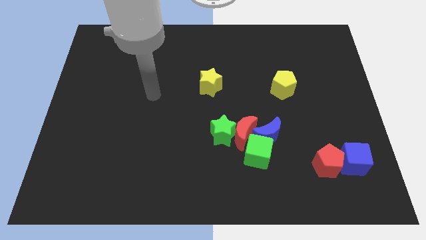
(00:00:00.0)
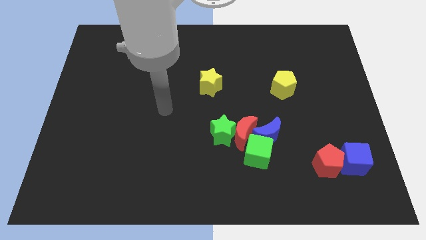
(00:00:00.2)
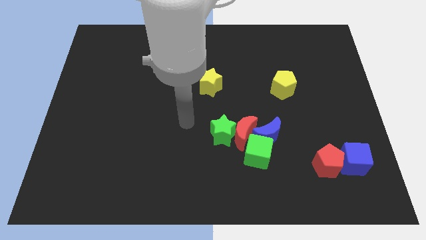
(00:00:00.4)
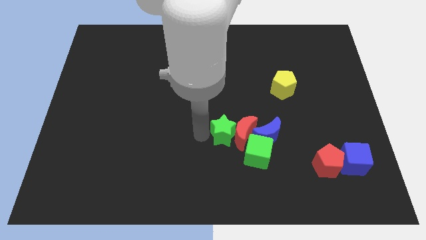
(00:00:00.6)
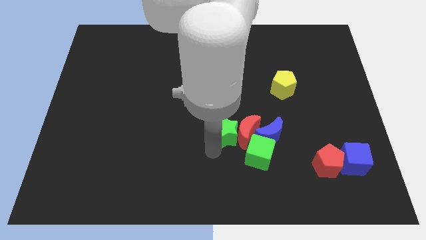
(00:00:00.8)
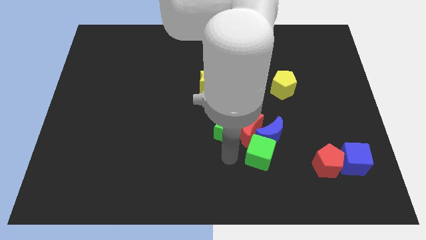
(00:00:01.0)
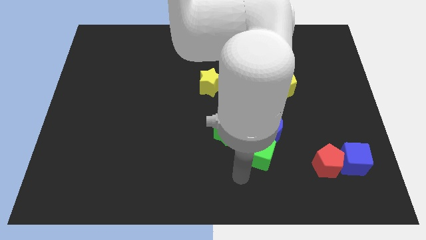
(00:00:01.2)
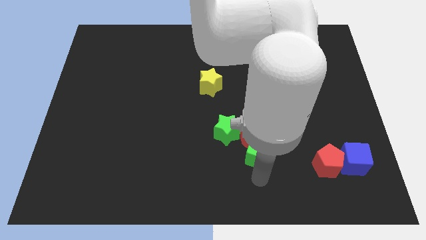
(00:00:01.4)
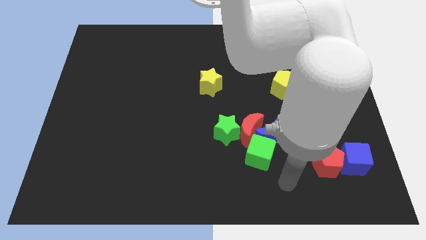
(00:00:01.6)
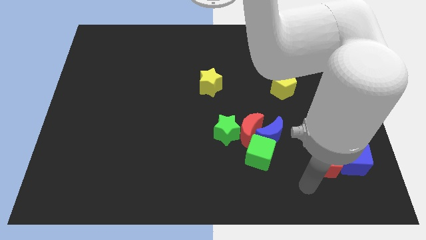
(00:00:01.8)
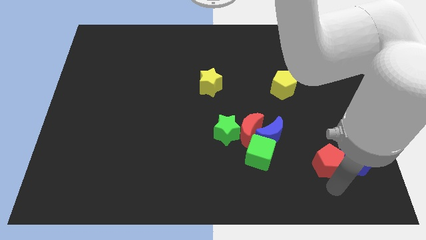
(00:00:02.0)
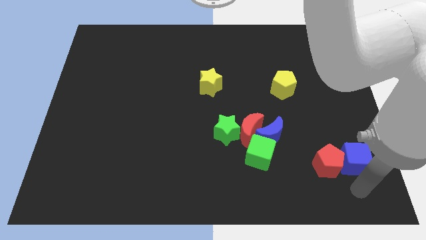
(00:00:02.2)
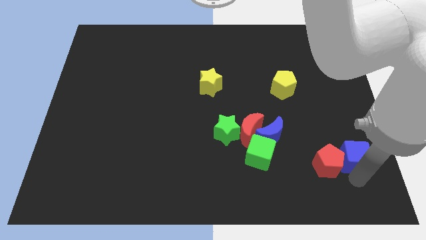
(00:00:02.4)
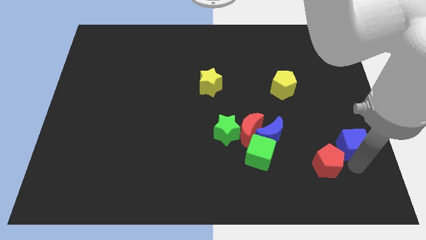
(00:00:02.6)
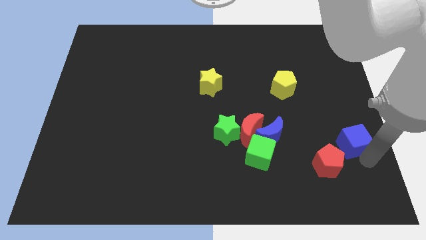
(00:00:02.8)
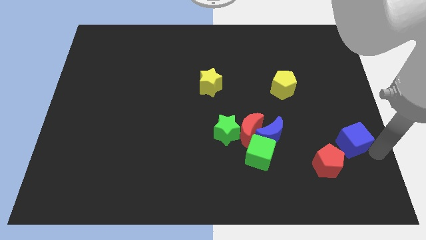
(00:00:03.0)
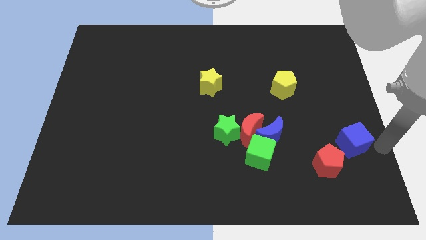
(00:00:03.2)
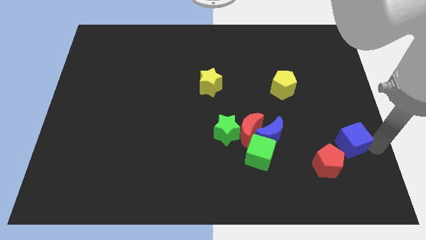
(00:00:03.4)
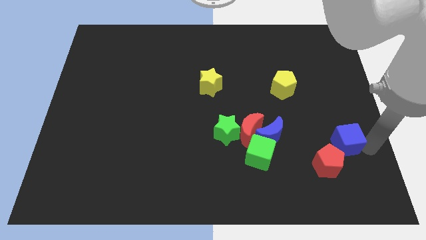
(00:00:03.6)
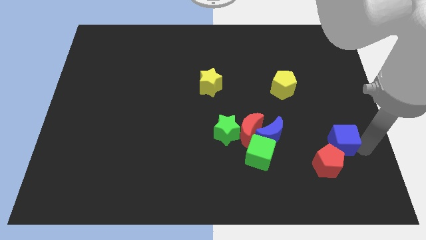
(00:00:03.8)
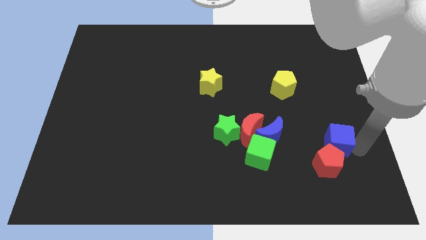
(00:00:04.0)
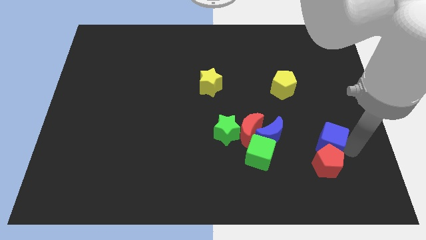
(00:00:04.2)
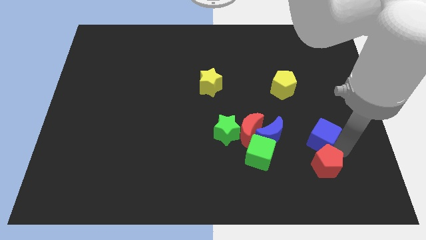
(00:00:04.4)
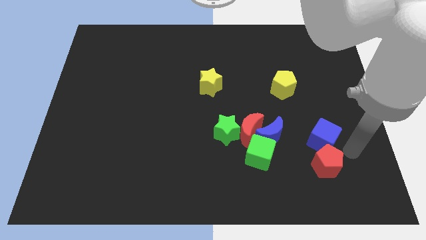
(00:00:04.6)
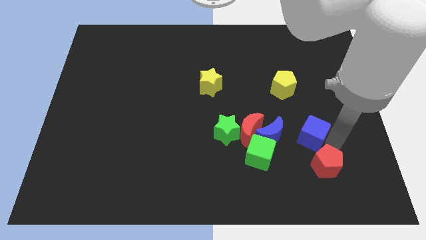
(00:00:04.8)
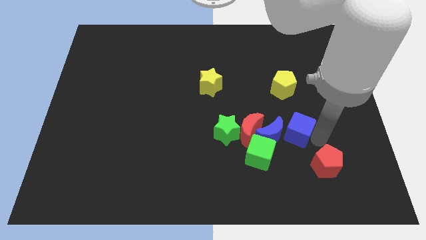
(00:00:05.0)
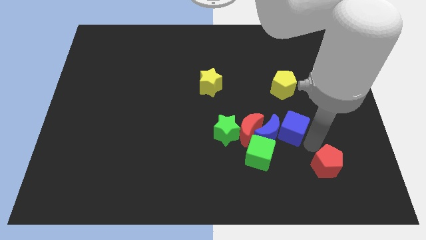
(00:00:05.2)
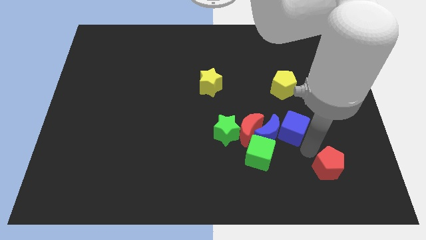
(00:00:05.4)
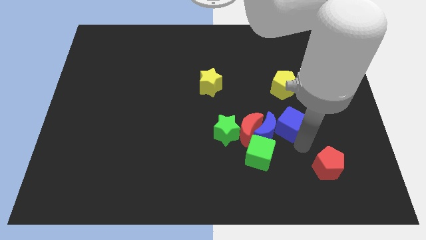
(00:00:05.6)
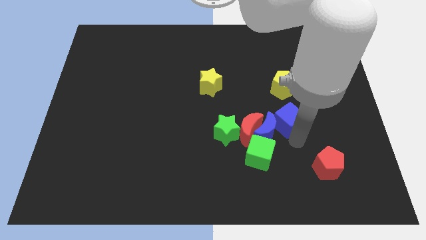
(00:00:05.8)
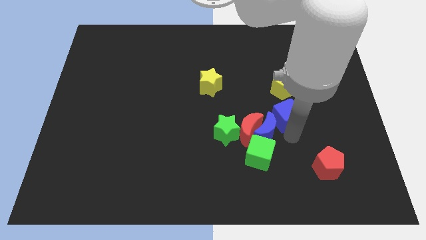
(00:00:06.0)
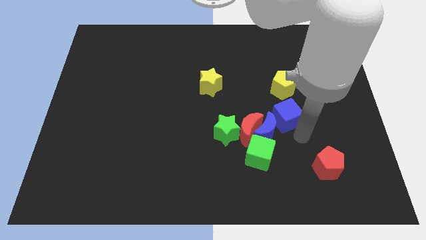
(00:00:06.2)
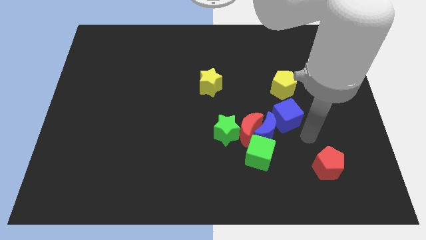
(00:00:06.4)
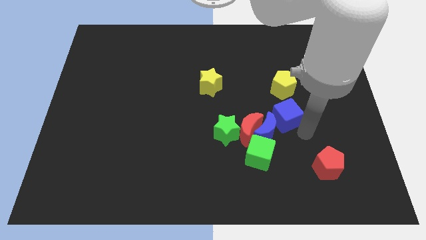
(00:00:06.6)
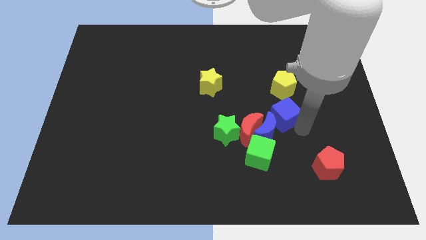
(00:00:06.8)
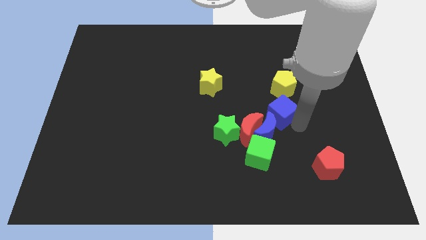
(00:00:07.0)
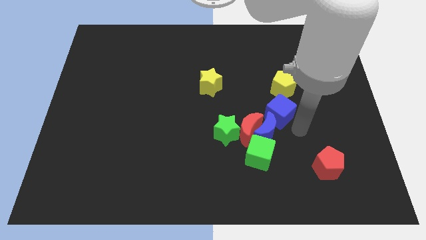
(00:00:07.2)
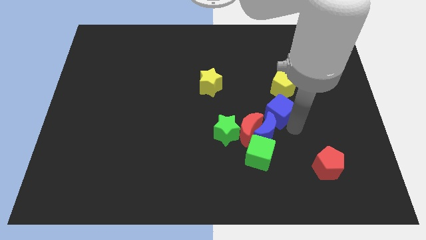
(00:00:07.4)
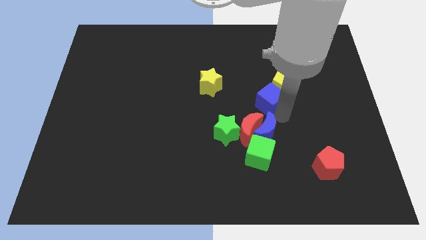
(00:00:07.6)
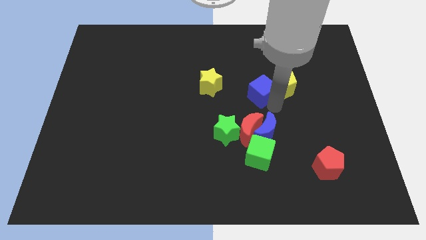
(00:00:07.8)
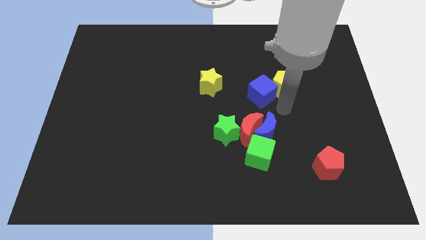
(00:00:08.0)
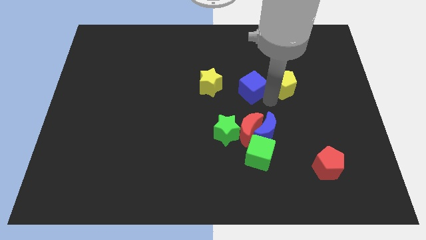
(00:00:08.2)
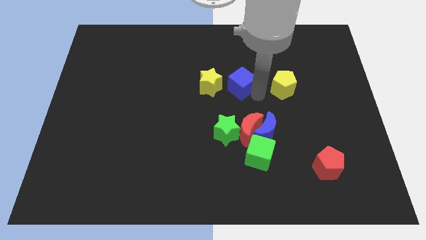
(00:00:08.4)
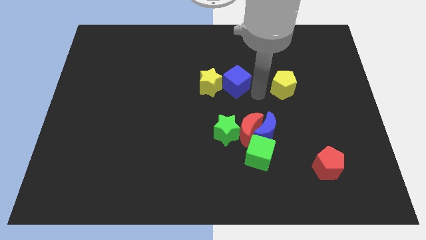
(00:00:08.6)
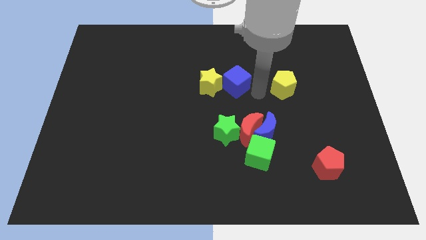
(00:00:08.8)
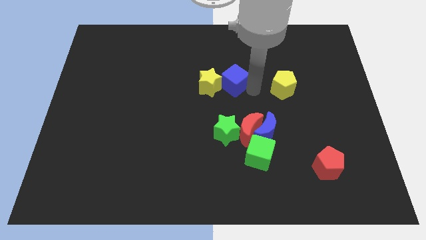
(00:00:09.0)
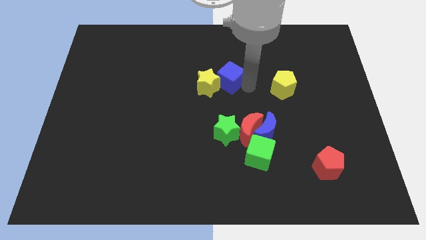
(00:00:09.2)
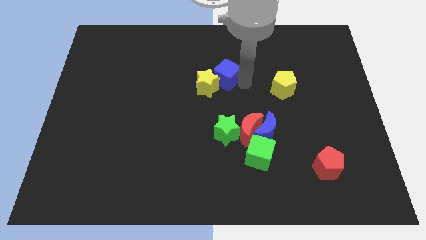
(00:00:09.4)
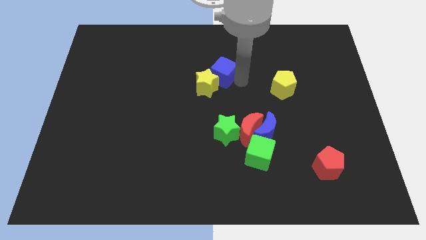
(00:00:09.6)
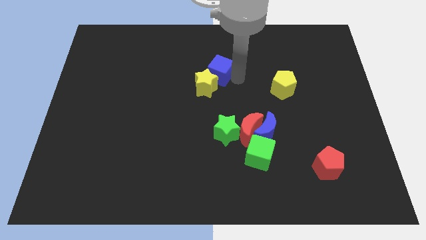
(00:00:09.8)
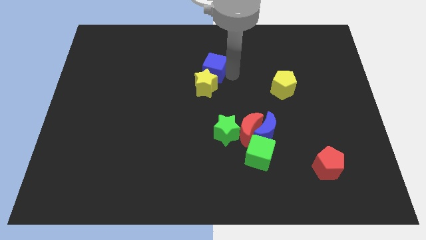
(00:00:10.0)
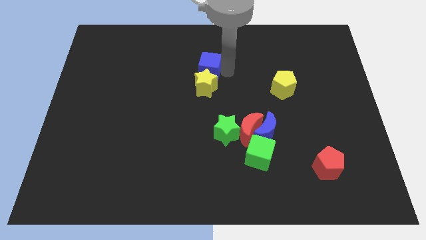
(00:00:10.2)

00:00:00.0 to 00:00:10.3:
put the blue cube to the top left of the yellow star

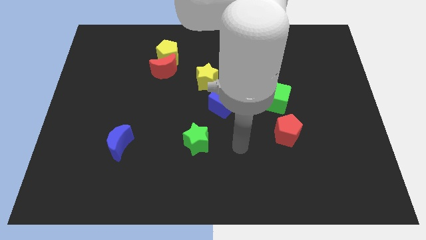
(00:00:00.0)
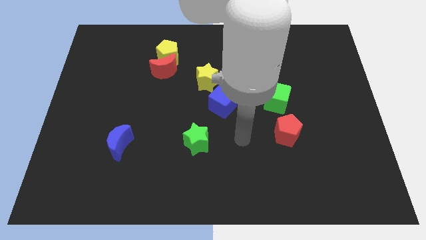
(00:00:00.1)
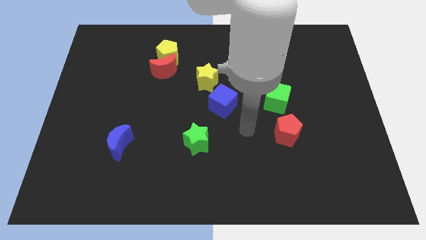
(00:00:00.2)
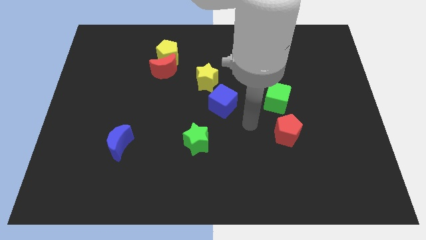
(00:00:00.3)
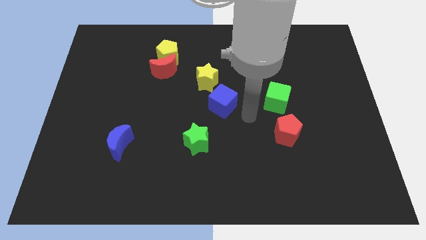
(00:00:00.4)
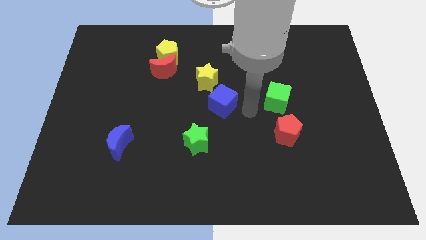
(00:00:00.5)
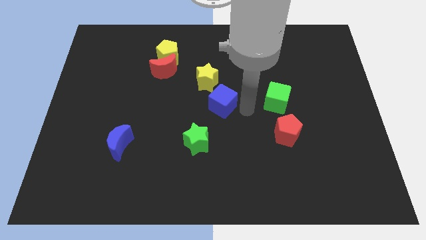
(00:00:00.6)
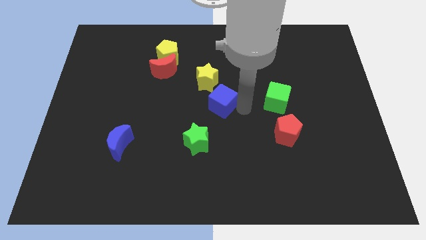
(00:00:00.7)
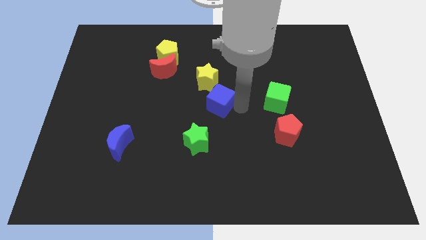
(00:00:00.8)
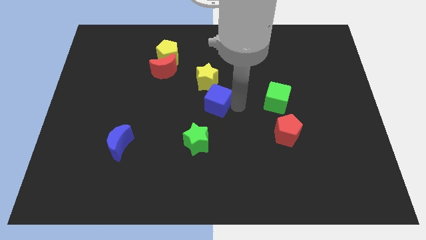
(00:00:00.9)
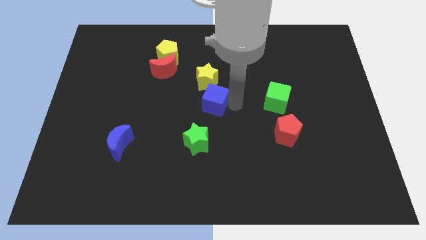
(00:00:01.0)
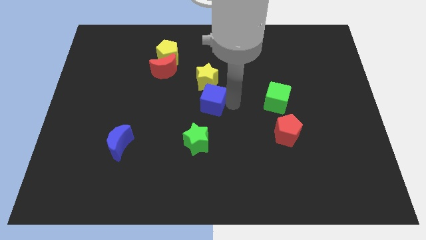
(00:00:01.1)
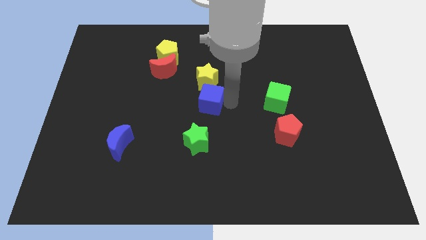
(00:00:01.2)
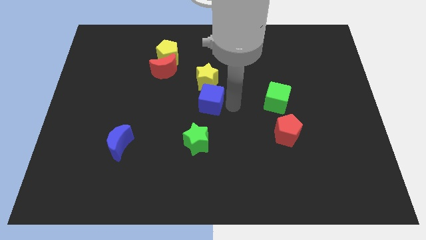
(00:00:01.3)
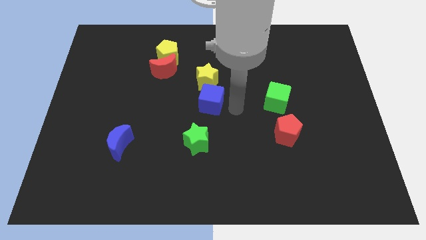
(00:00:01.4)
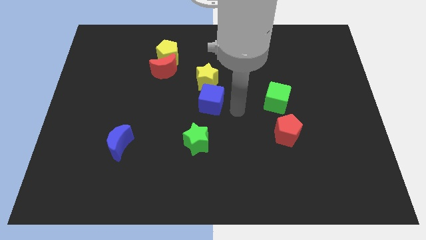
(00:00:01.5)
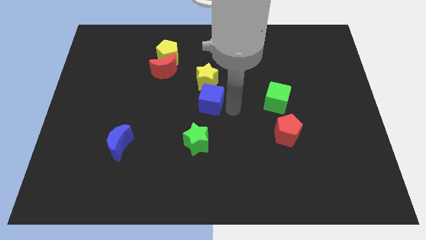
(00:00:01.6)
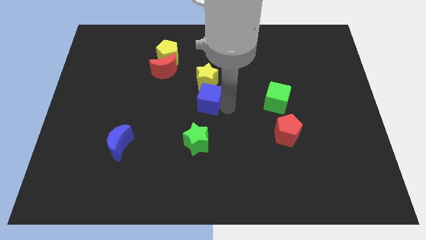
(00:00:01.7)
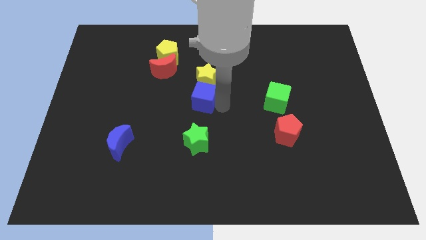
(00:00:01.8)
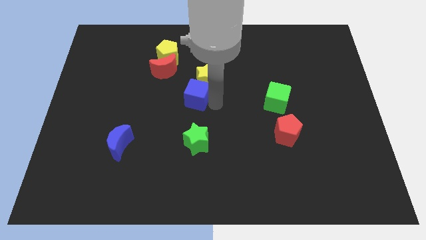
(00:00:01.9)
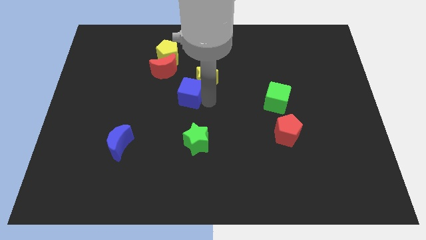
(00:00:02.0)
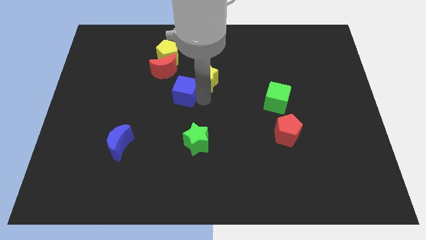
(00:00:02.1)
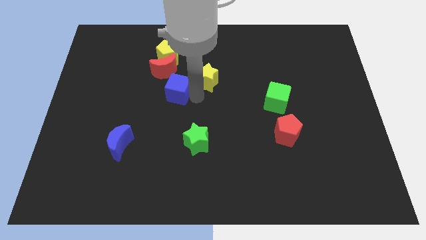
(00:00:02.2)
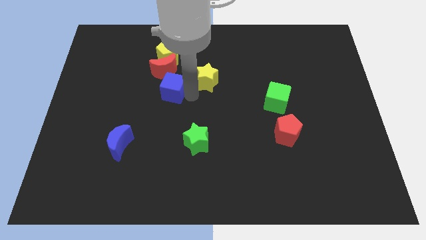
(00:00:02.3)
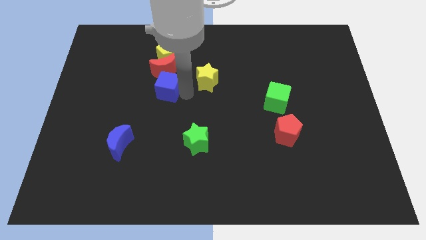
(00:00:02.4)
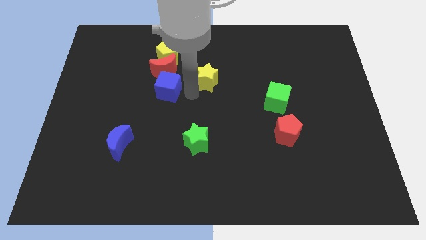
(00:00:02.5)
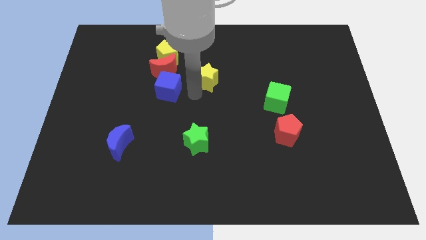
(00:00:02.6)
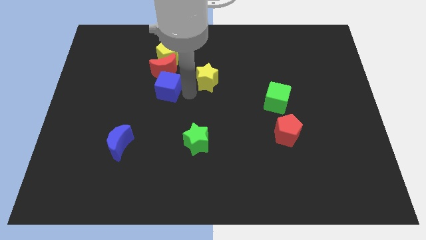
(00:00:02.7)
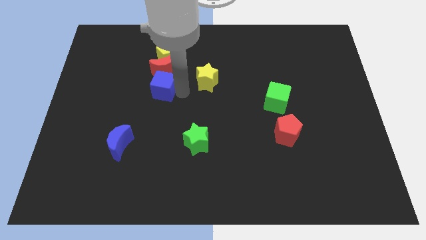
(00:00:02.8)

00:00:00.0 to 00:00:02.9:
put the blue cube diagonally down and to the left of the red moon
